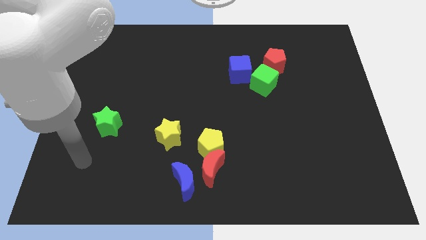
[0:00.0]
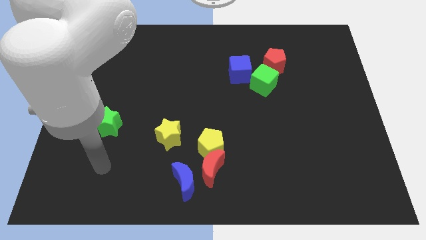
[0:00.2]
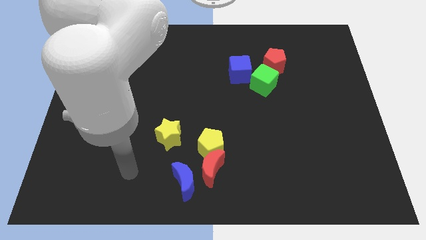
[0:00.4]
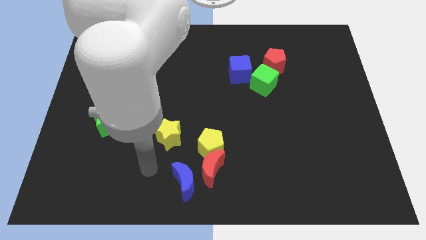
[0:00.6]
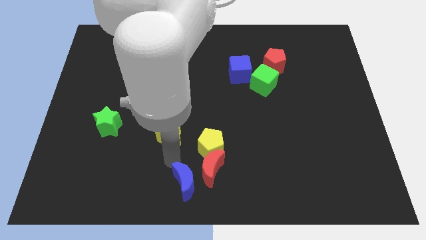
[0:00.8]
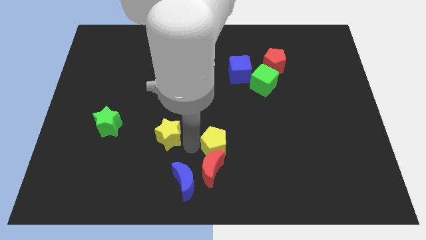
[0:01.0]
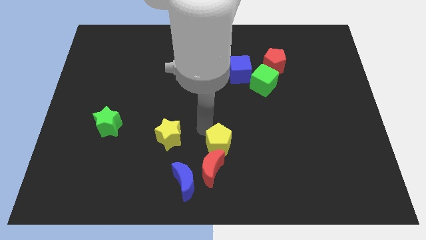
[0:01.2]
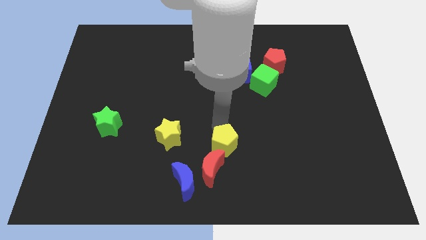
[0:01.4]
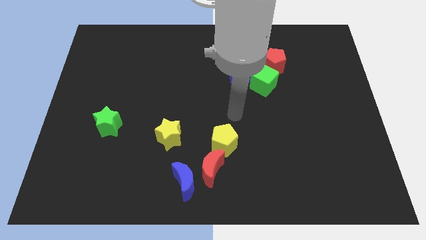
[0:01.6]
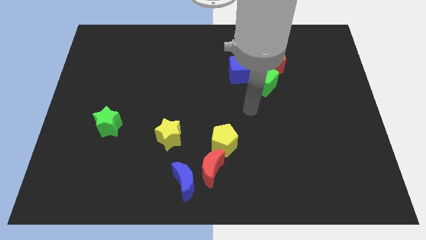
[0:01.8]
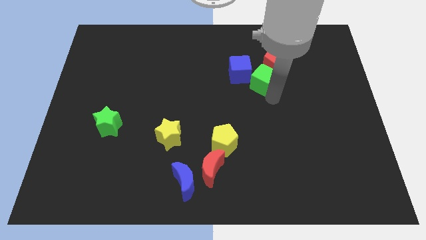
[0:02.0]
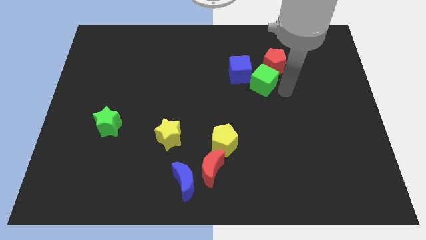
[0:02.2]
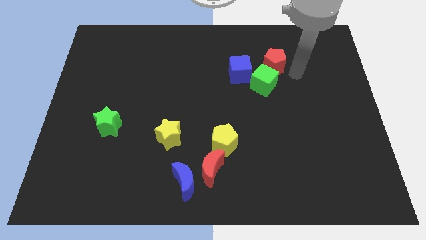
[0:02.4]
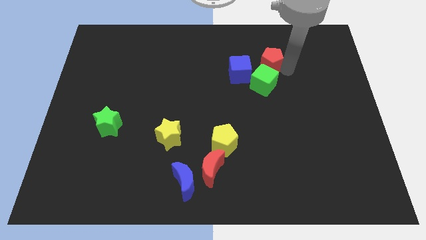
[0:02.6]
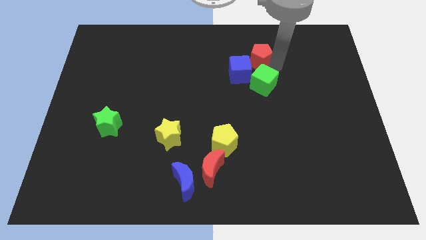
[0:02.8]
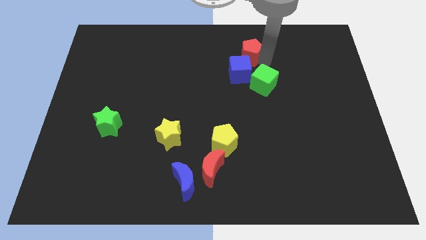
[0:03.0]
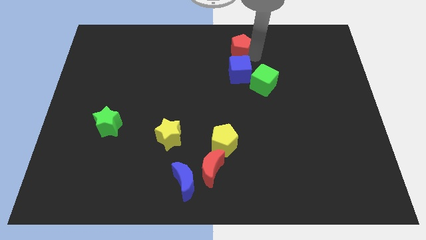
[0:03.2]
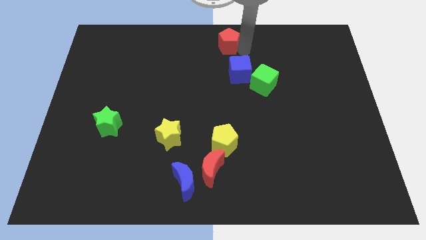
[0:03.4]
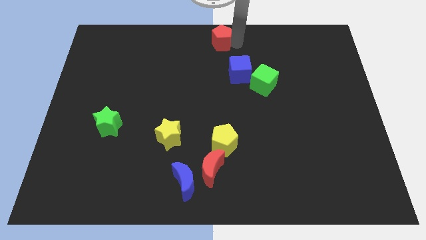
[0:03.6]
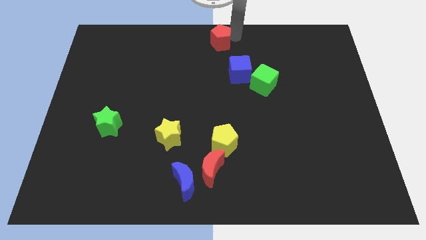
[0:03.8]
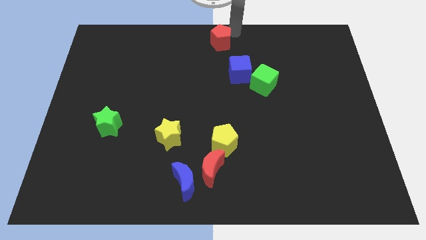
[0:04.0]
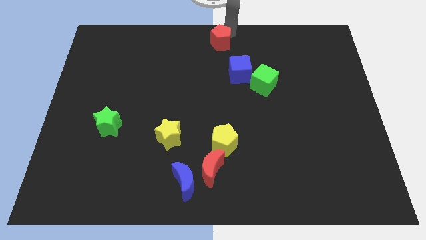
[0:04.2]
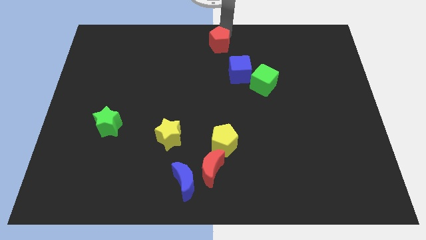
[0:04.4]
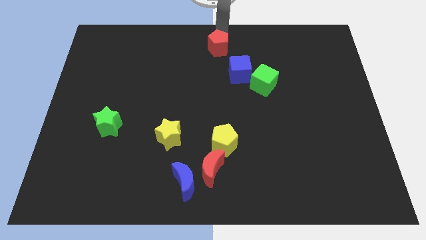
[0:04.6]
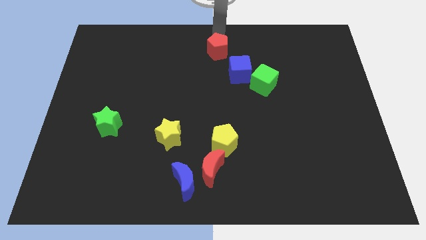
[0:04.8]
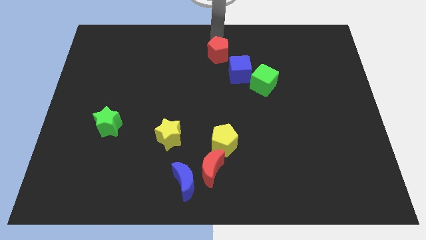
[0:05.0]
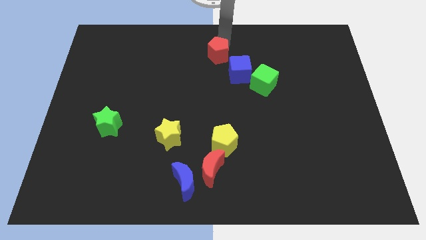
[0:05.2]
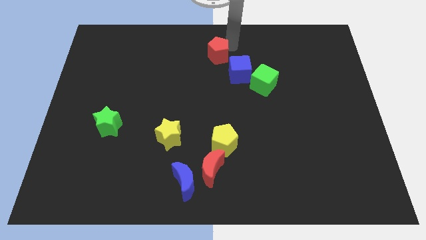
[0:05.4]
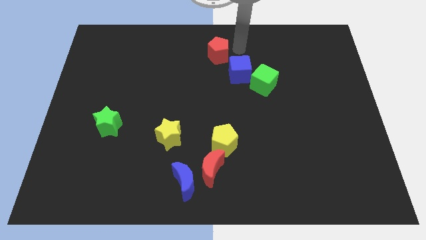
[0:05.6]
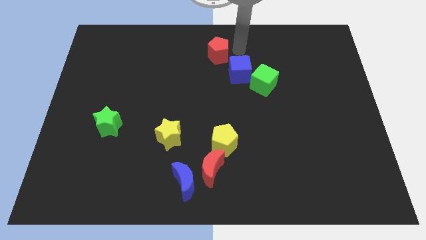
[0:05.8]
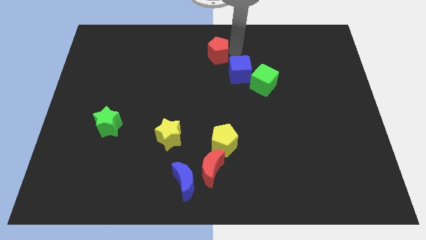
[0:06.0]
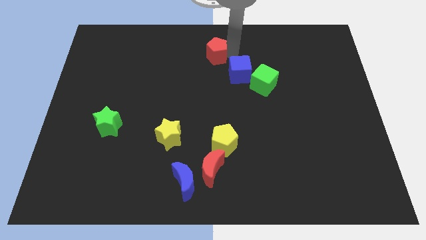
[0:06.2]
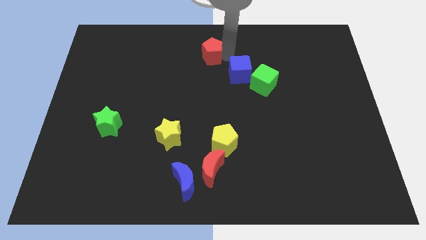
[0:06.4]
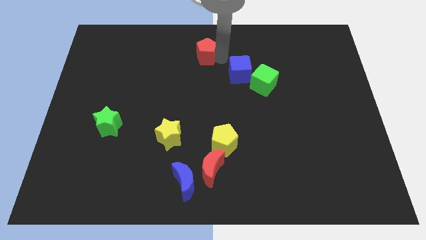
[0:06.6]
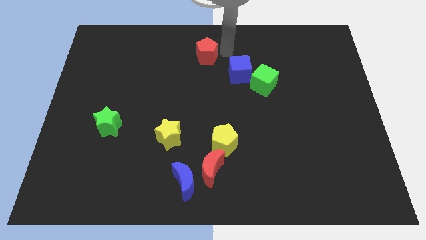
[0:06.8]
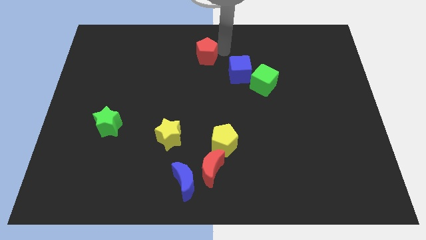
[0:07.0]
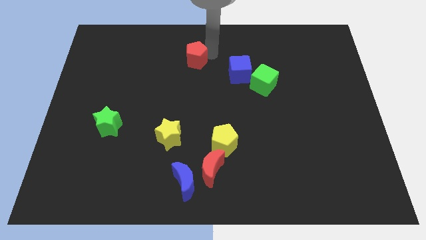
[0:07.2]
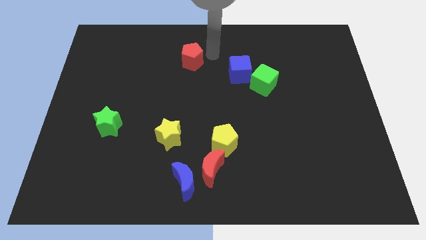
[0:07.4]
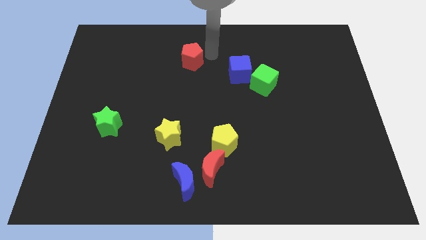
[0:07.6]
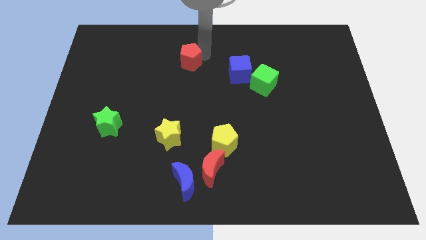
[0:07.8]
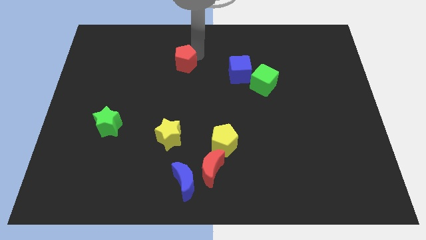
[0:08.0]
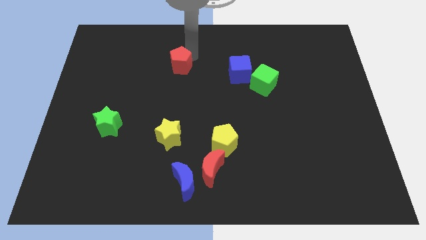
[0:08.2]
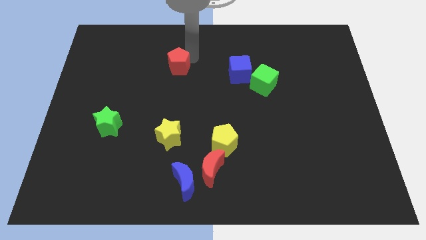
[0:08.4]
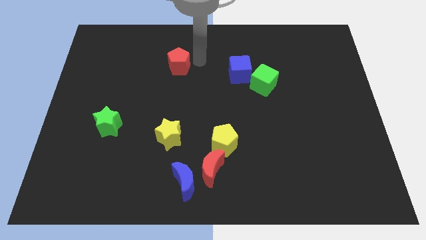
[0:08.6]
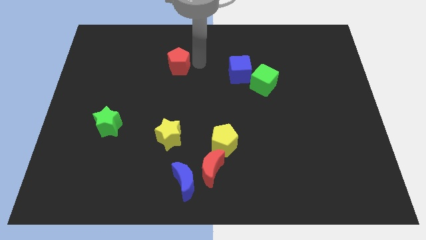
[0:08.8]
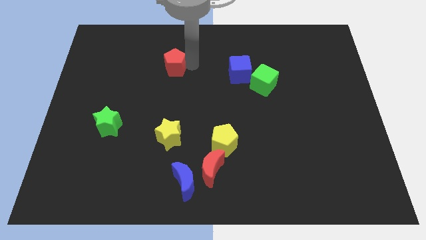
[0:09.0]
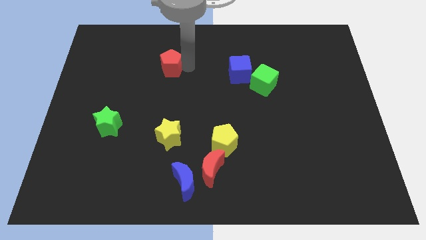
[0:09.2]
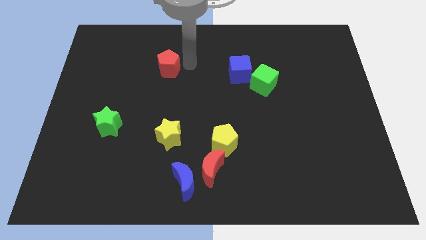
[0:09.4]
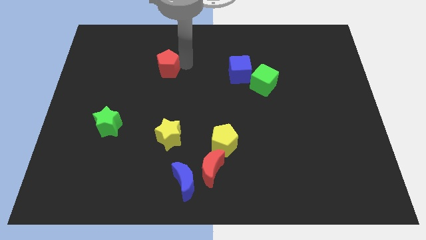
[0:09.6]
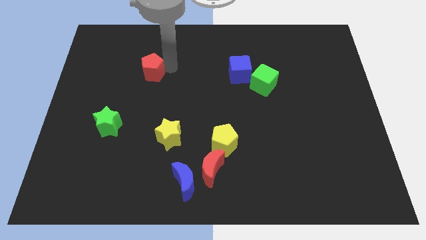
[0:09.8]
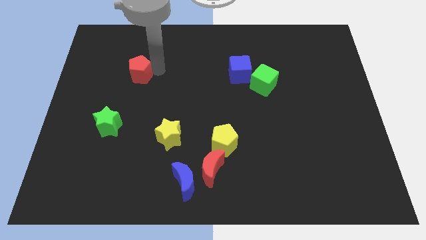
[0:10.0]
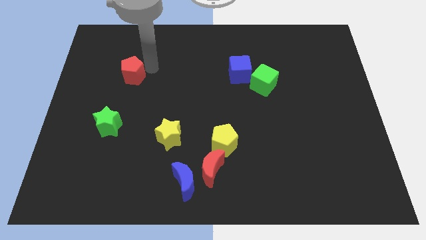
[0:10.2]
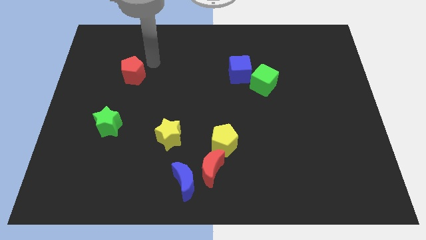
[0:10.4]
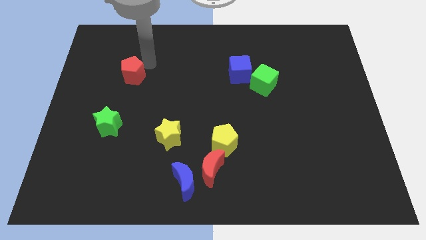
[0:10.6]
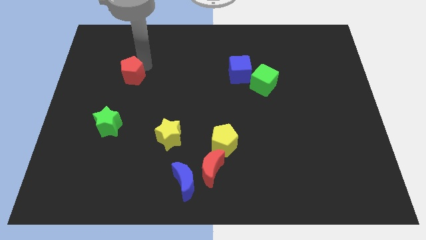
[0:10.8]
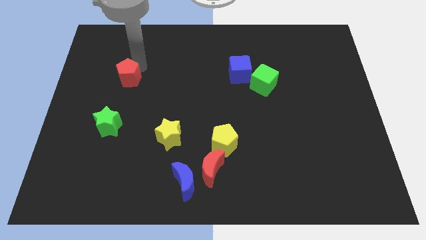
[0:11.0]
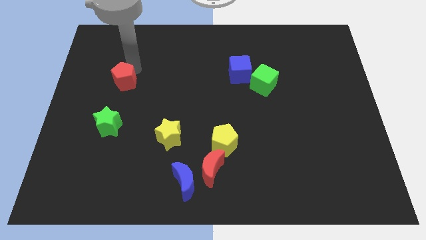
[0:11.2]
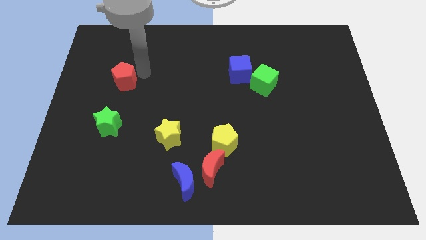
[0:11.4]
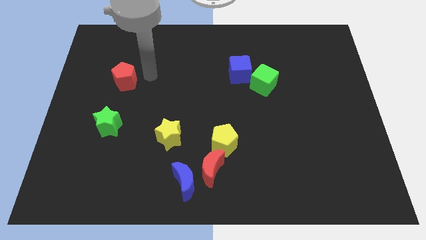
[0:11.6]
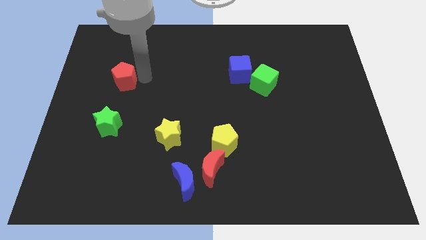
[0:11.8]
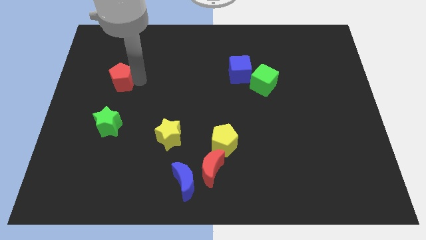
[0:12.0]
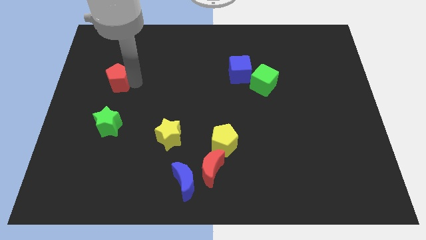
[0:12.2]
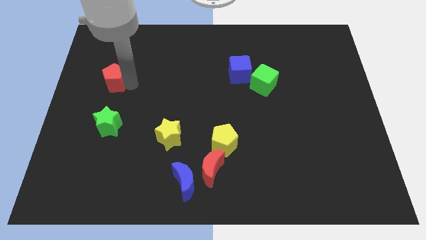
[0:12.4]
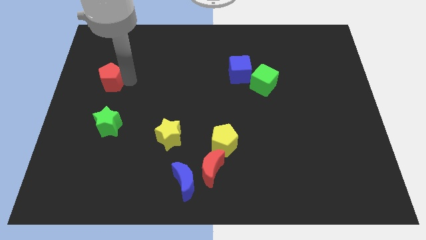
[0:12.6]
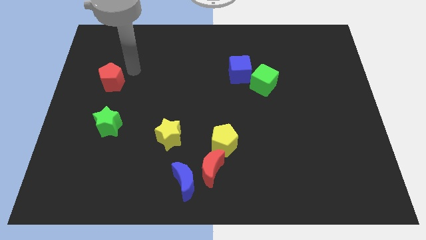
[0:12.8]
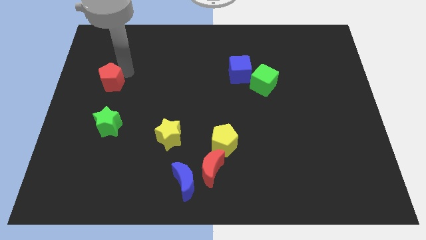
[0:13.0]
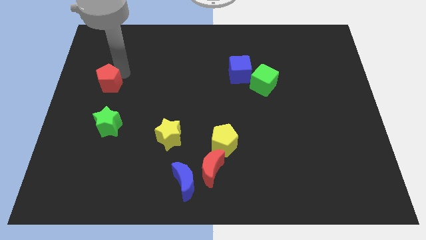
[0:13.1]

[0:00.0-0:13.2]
push the red pentagon to the center left
